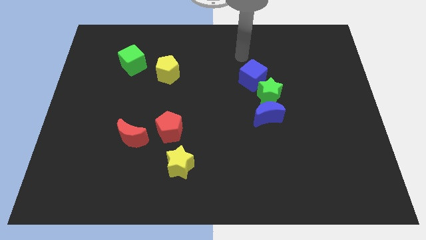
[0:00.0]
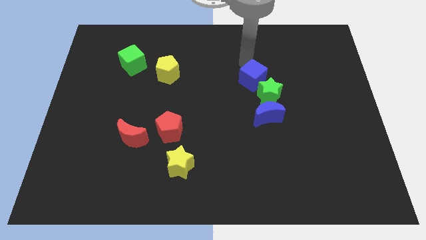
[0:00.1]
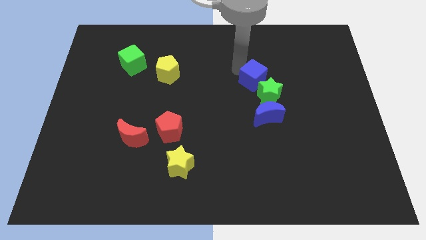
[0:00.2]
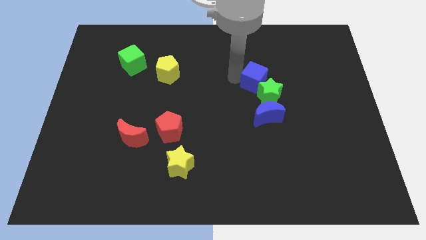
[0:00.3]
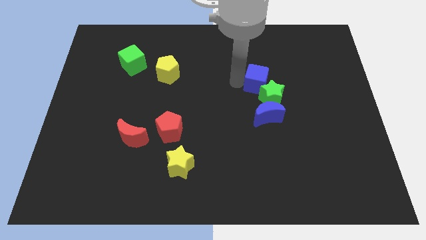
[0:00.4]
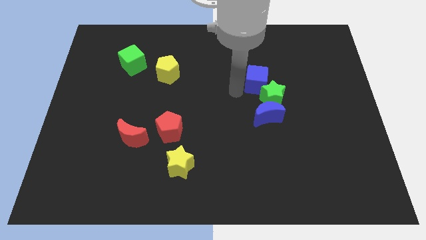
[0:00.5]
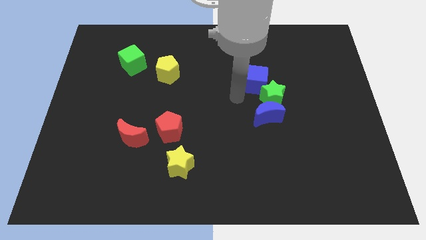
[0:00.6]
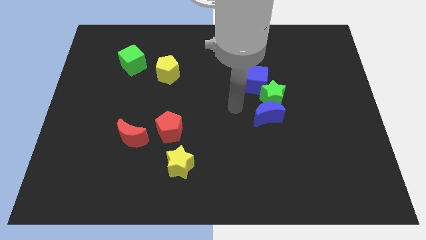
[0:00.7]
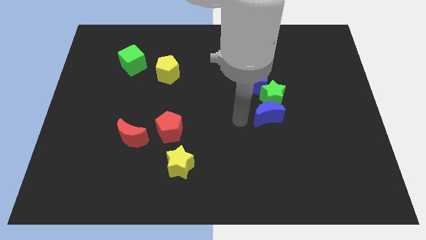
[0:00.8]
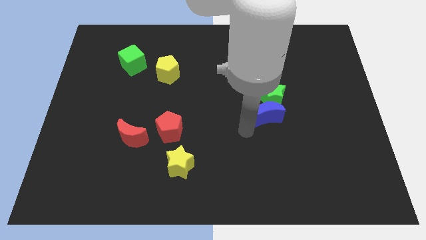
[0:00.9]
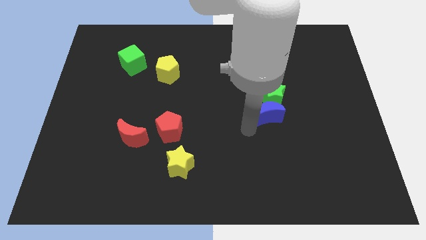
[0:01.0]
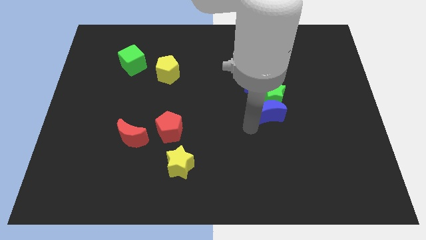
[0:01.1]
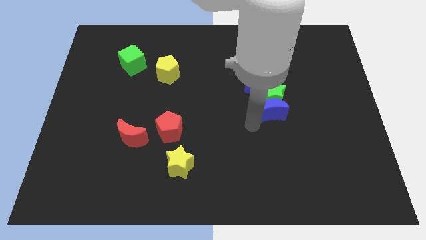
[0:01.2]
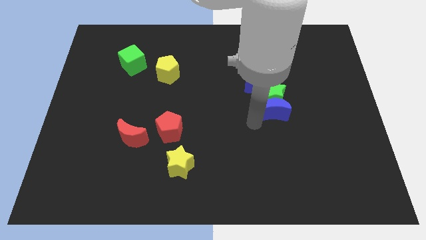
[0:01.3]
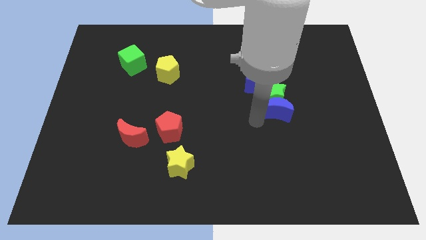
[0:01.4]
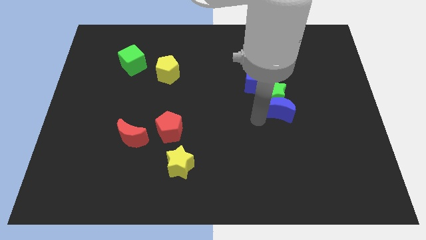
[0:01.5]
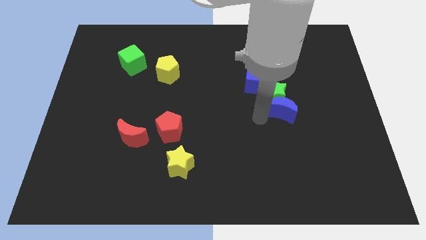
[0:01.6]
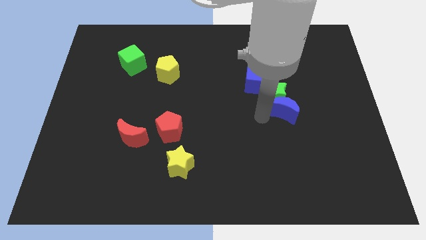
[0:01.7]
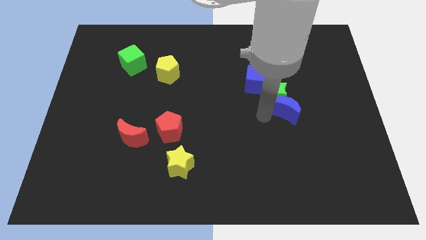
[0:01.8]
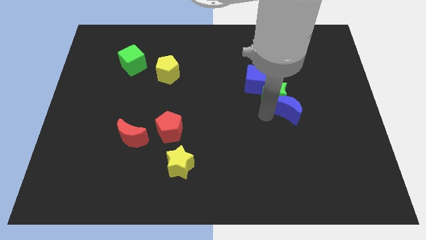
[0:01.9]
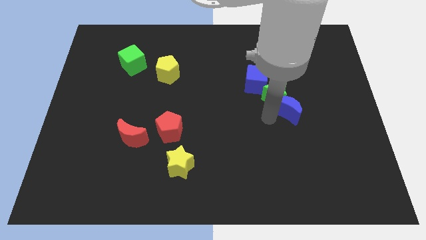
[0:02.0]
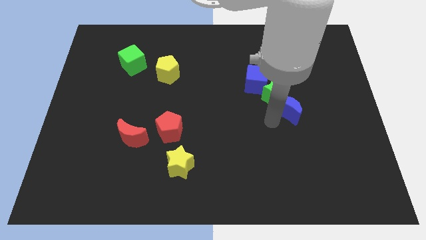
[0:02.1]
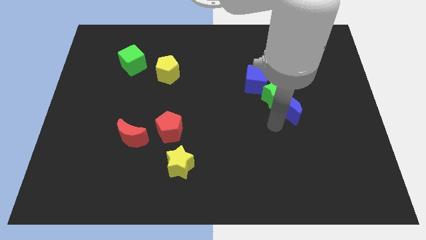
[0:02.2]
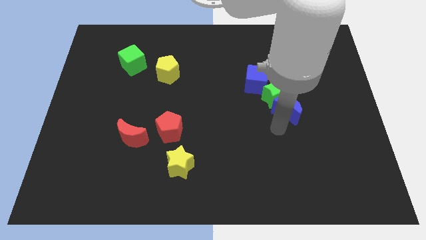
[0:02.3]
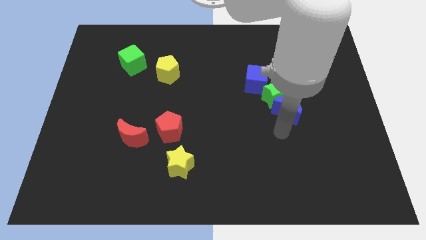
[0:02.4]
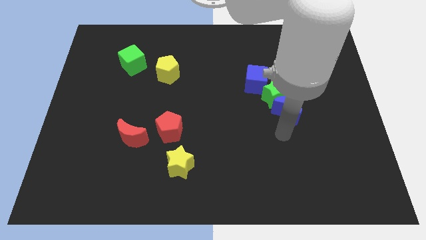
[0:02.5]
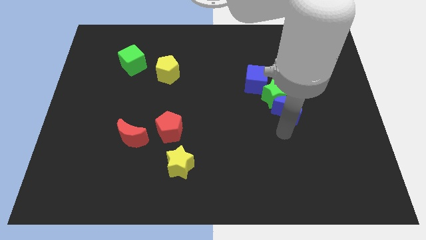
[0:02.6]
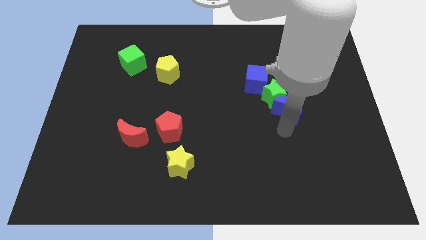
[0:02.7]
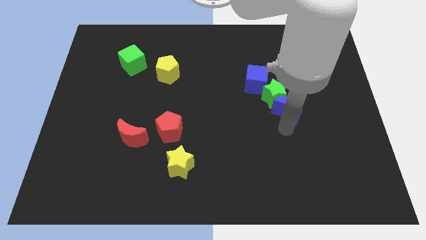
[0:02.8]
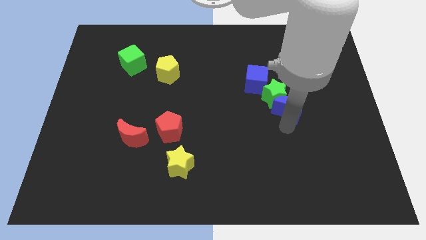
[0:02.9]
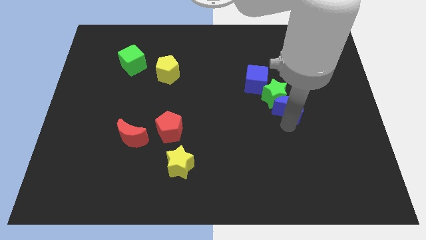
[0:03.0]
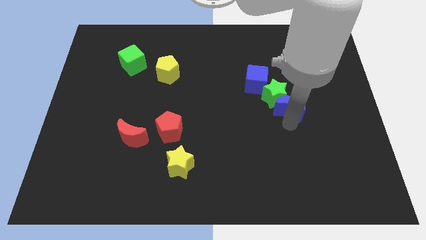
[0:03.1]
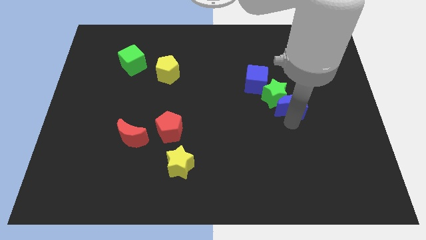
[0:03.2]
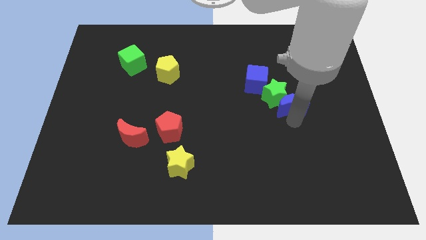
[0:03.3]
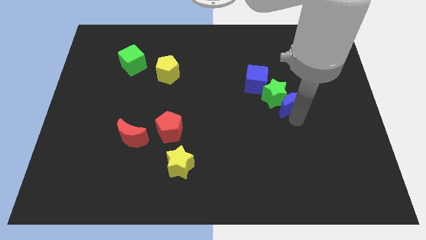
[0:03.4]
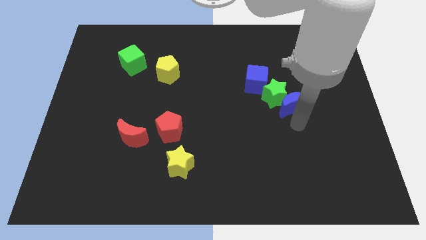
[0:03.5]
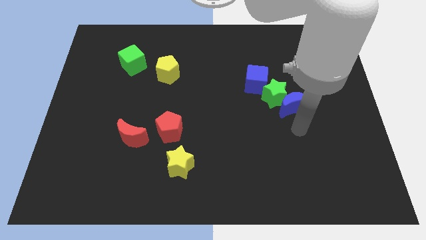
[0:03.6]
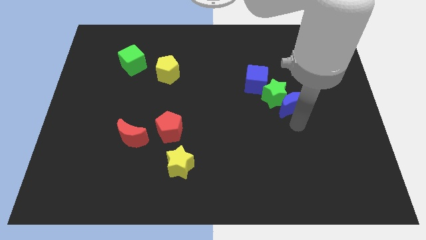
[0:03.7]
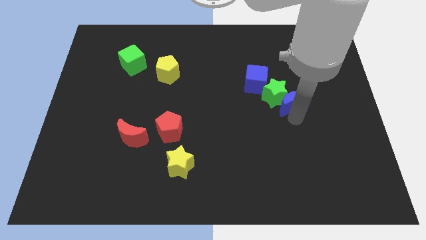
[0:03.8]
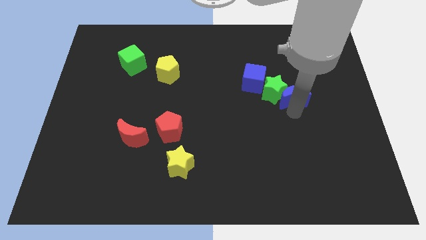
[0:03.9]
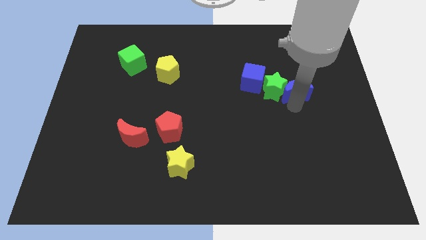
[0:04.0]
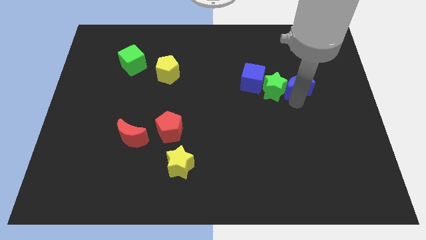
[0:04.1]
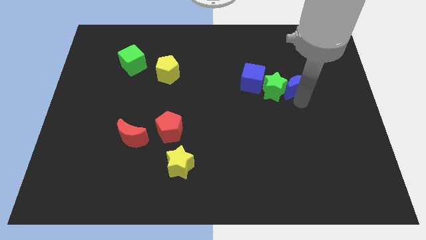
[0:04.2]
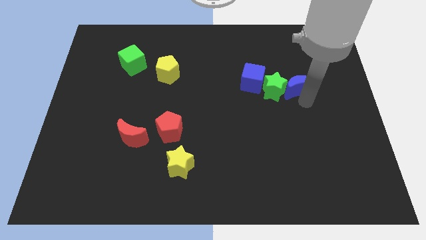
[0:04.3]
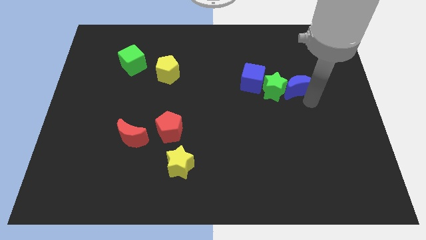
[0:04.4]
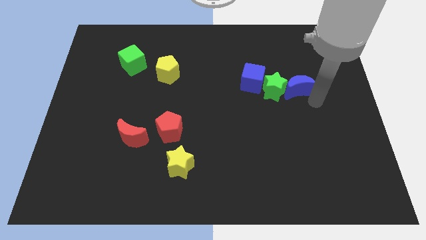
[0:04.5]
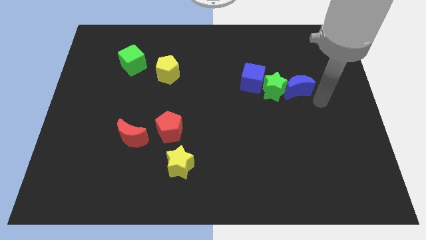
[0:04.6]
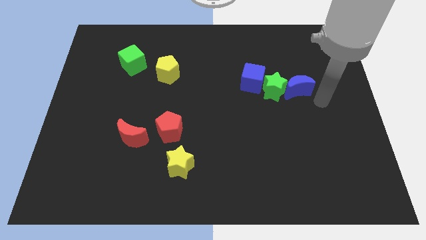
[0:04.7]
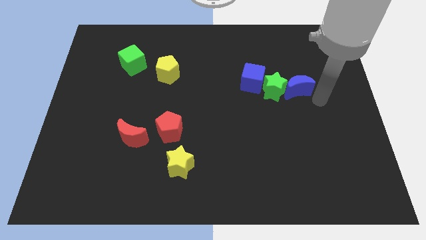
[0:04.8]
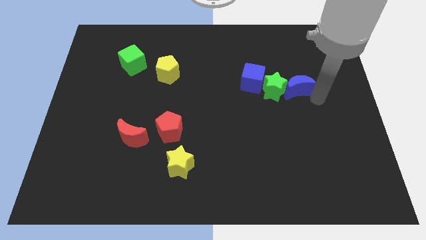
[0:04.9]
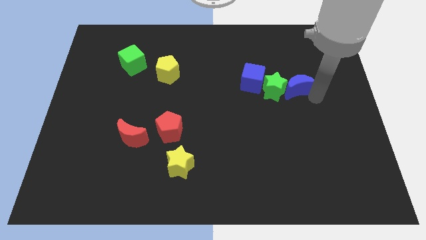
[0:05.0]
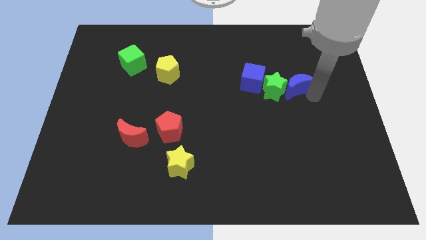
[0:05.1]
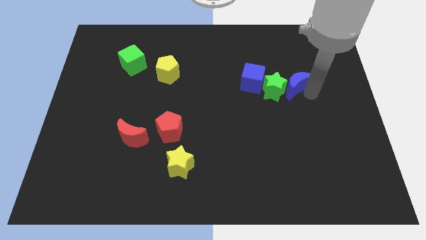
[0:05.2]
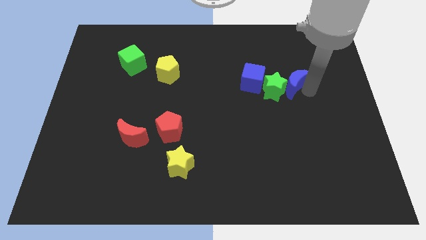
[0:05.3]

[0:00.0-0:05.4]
slightly push the blue moon up

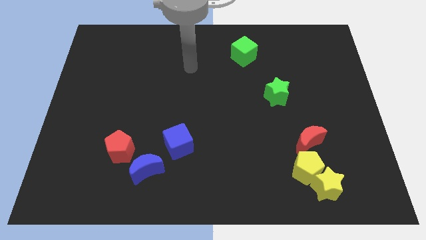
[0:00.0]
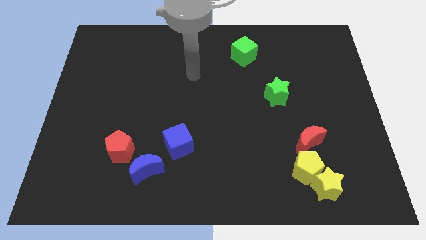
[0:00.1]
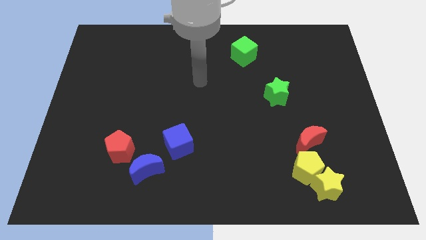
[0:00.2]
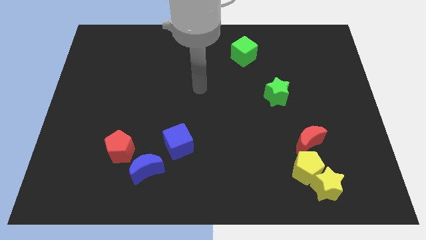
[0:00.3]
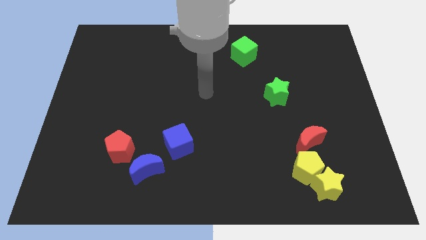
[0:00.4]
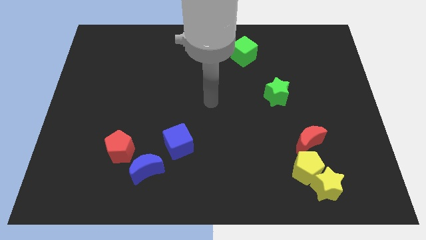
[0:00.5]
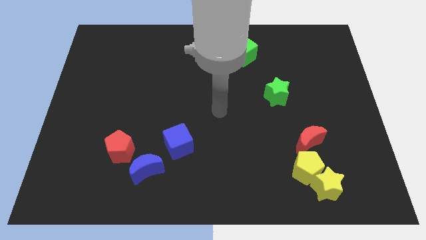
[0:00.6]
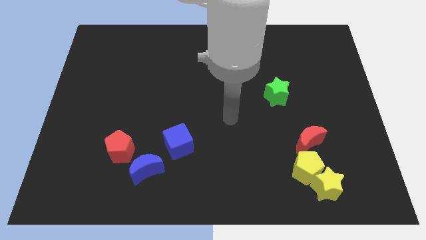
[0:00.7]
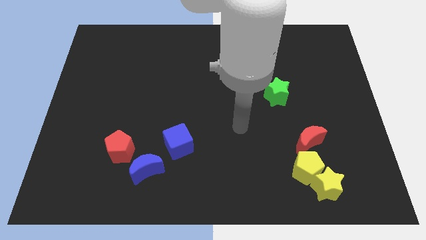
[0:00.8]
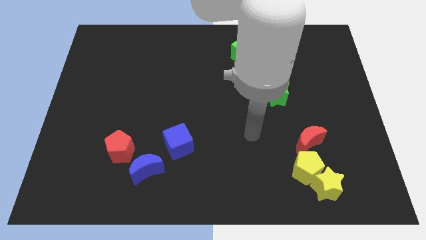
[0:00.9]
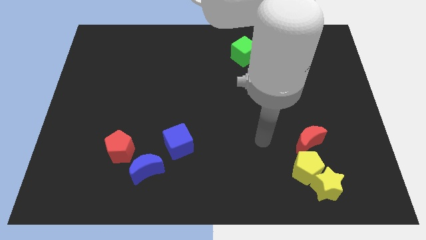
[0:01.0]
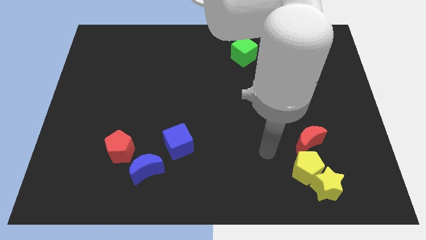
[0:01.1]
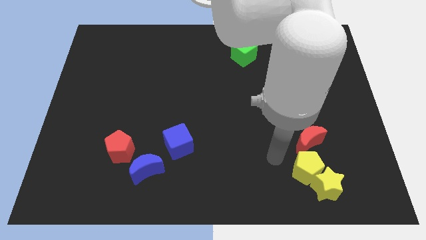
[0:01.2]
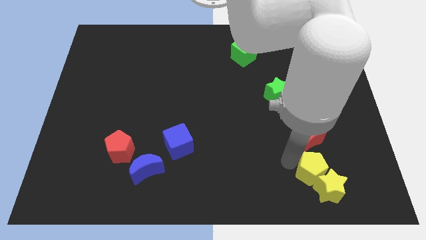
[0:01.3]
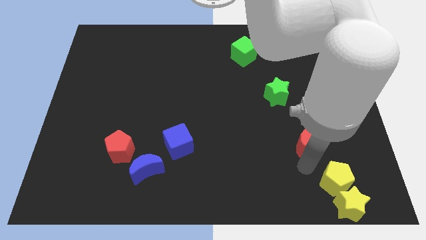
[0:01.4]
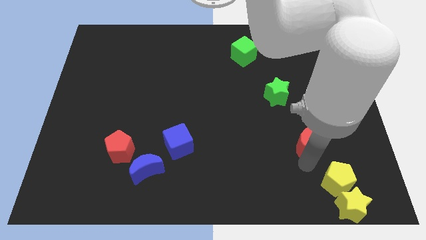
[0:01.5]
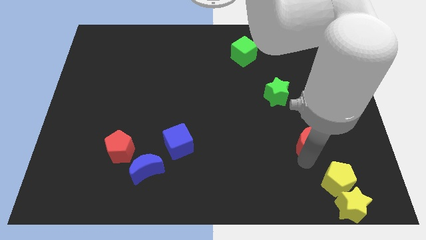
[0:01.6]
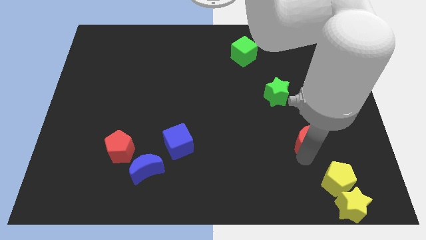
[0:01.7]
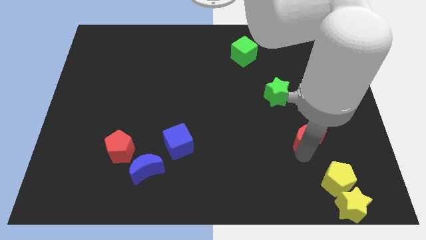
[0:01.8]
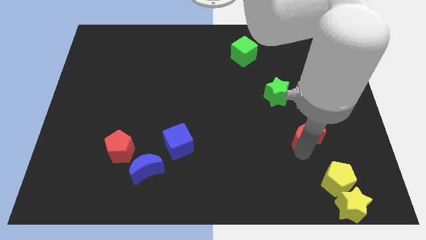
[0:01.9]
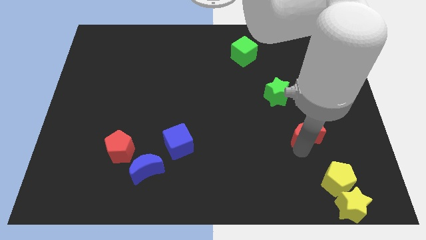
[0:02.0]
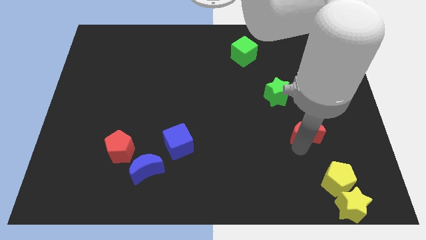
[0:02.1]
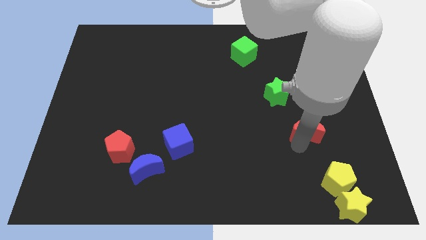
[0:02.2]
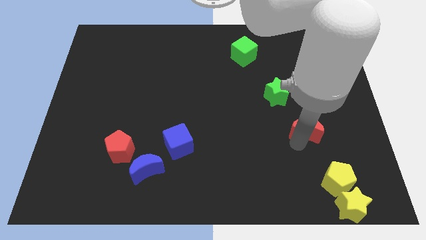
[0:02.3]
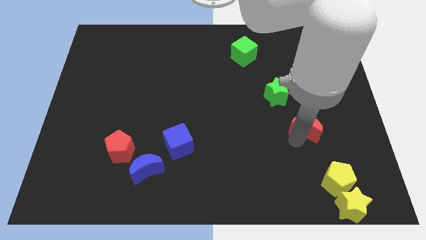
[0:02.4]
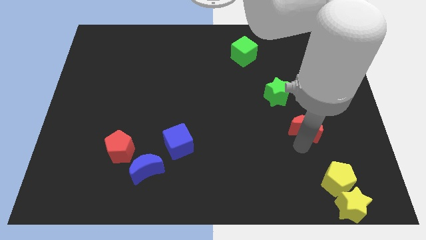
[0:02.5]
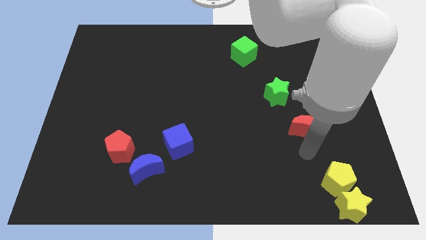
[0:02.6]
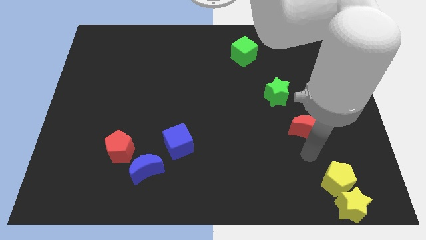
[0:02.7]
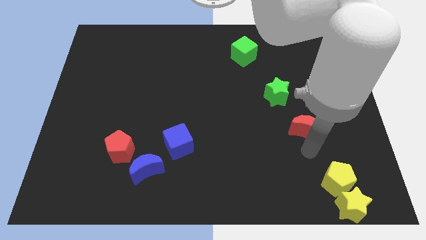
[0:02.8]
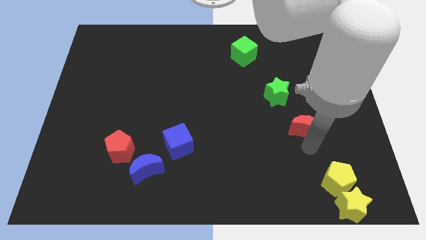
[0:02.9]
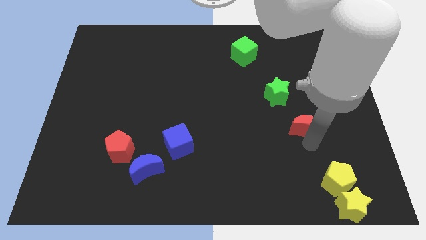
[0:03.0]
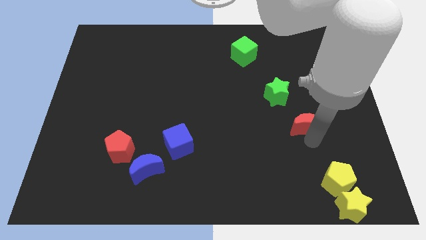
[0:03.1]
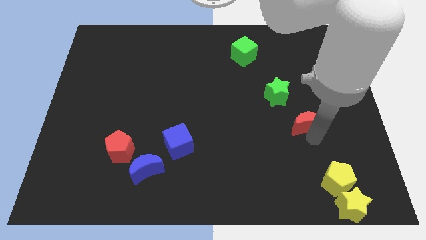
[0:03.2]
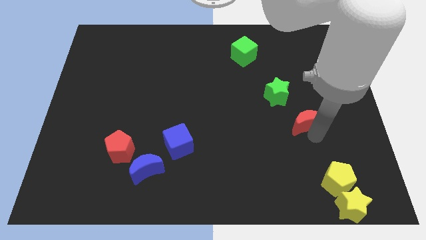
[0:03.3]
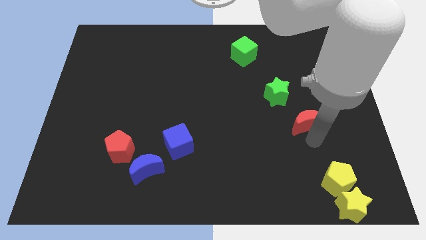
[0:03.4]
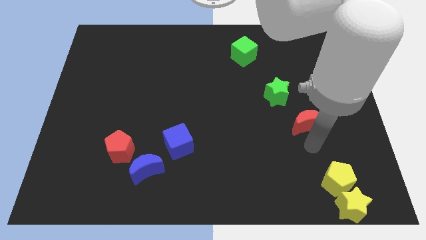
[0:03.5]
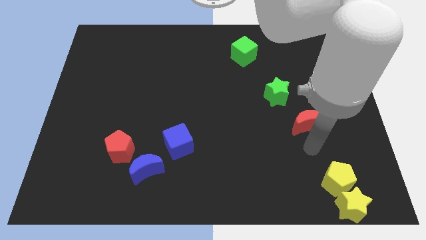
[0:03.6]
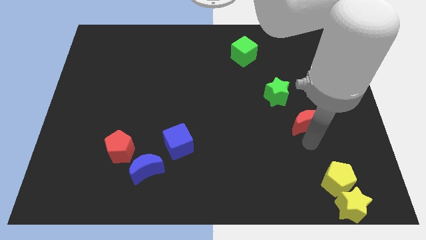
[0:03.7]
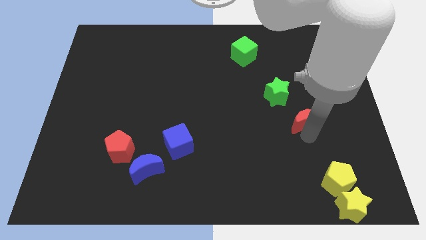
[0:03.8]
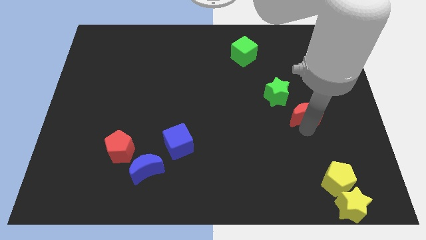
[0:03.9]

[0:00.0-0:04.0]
slide the red moon slightly upwards
